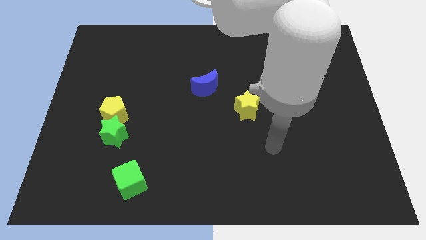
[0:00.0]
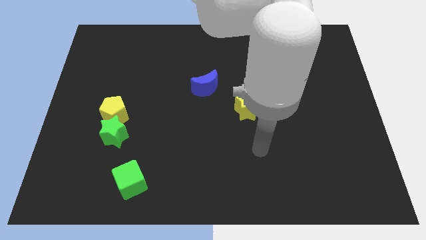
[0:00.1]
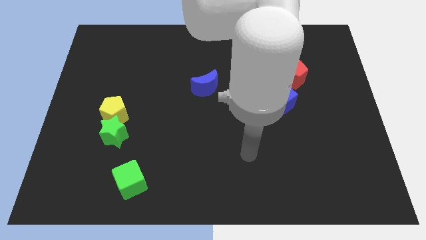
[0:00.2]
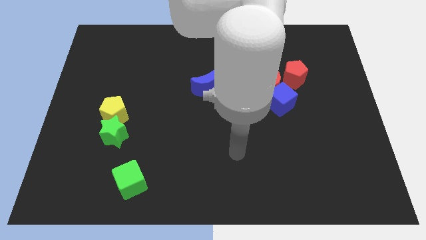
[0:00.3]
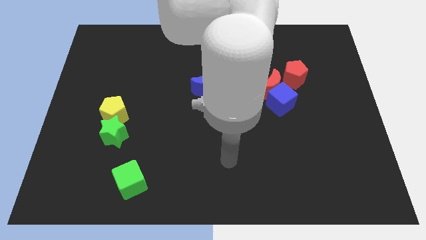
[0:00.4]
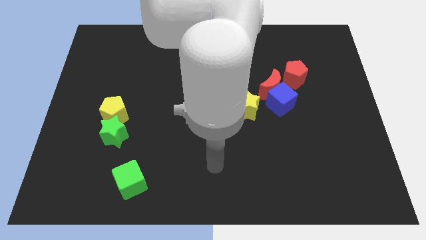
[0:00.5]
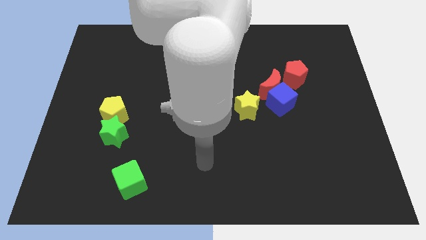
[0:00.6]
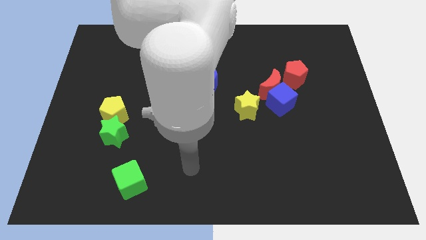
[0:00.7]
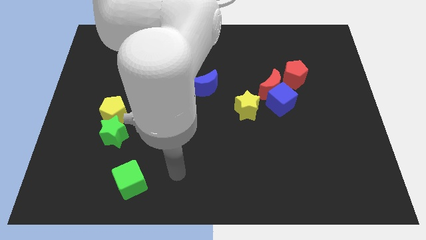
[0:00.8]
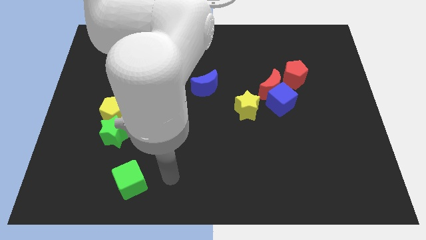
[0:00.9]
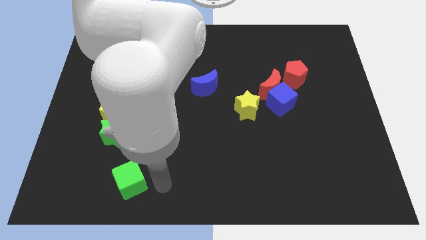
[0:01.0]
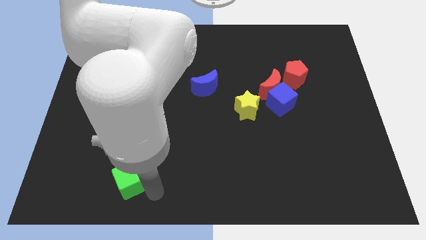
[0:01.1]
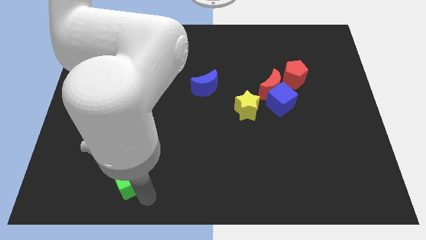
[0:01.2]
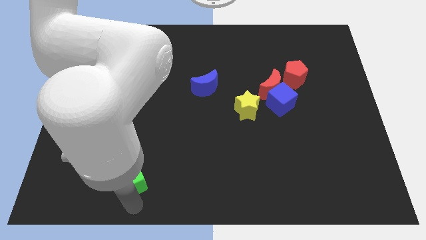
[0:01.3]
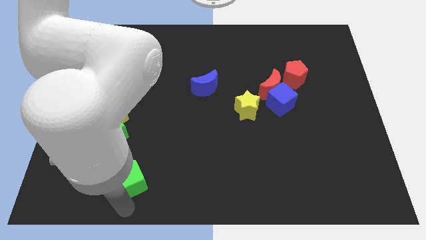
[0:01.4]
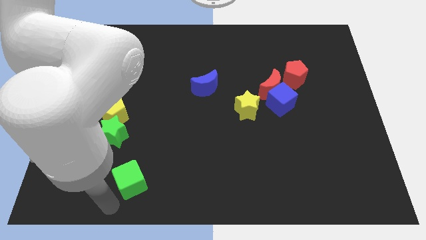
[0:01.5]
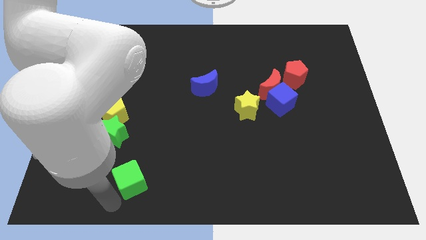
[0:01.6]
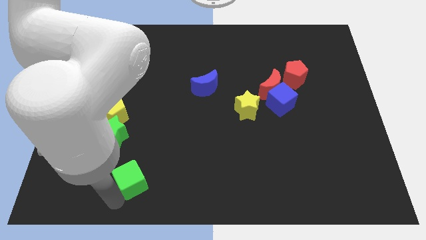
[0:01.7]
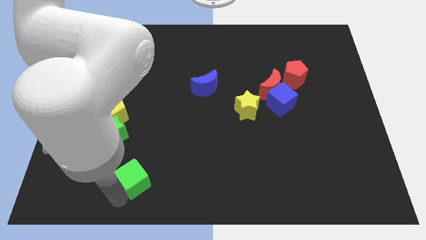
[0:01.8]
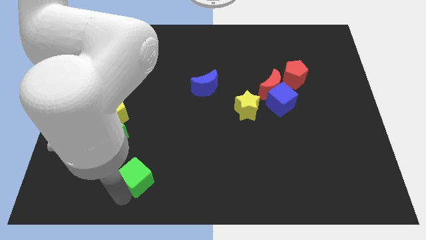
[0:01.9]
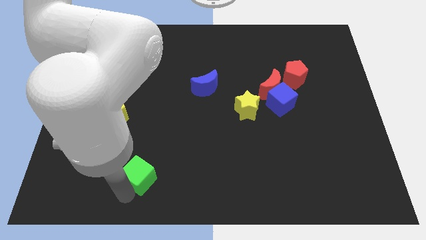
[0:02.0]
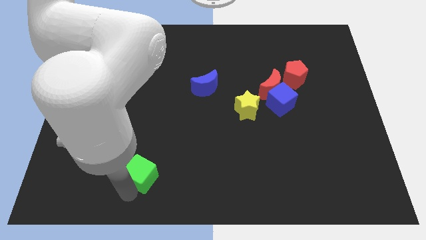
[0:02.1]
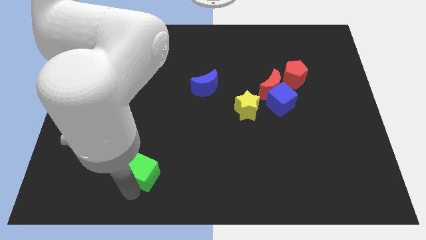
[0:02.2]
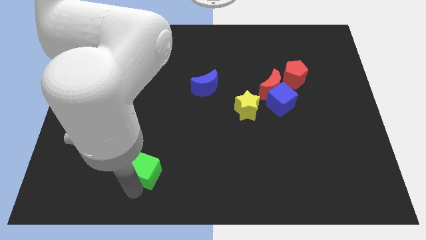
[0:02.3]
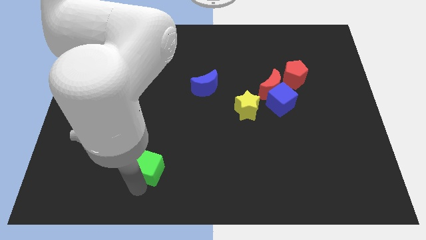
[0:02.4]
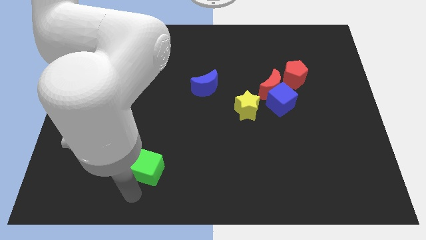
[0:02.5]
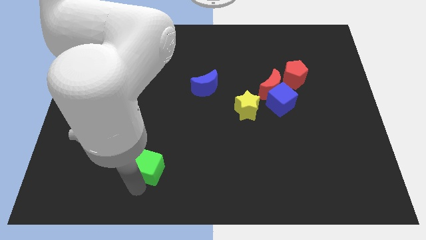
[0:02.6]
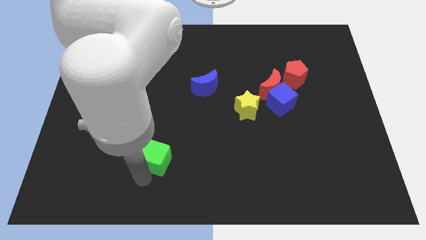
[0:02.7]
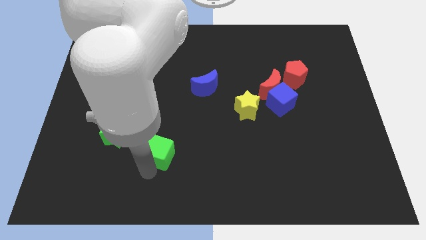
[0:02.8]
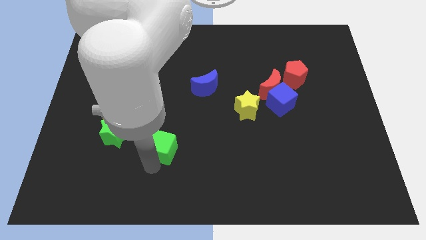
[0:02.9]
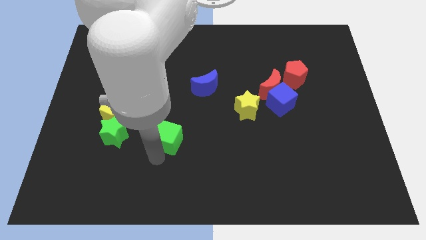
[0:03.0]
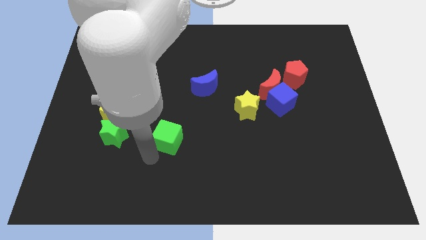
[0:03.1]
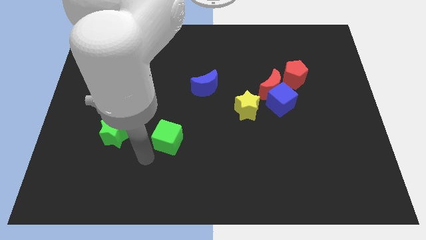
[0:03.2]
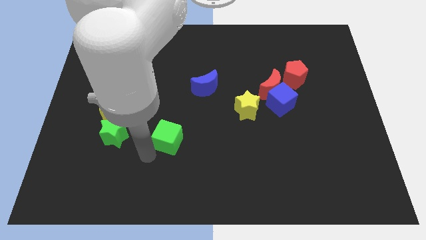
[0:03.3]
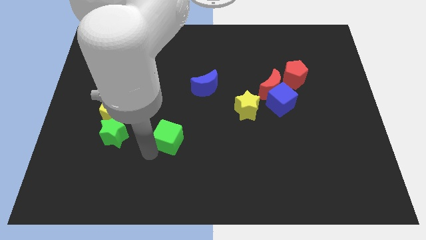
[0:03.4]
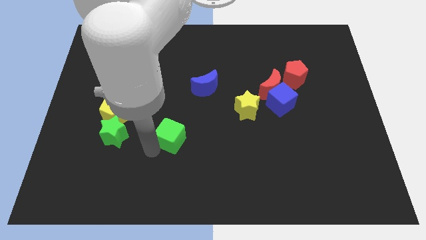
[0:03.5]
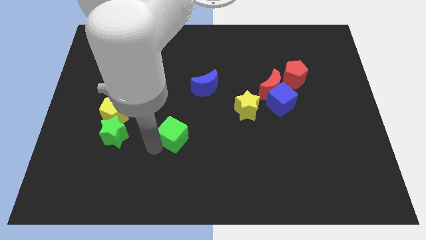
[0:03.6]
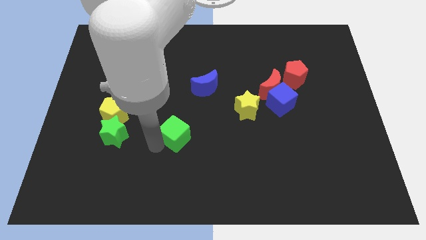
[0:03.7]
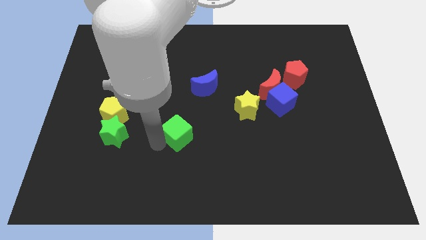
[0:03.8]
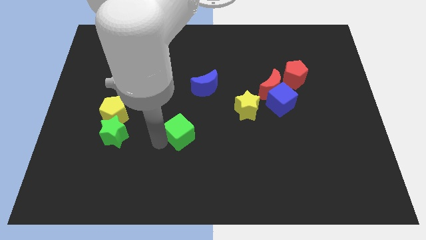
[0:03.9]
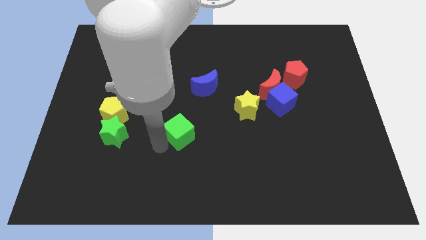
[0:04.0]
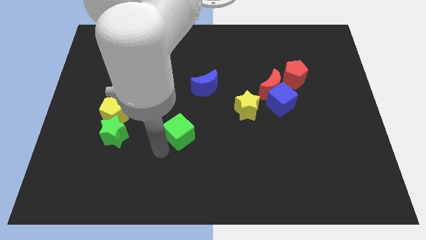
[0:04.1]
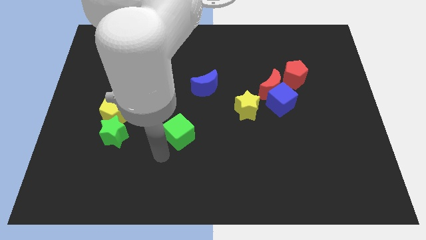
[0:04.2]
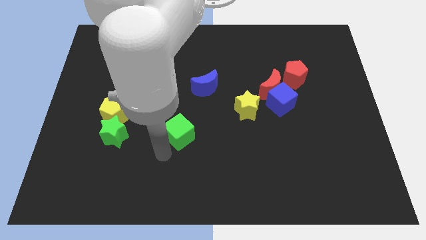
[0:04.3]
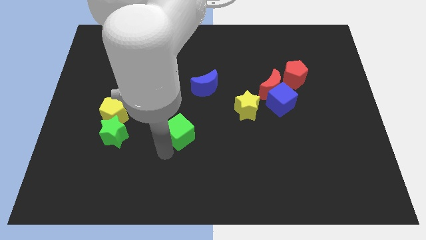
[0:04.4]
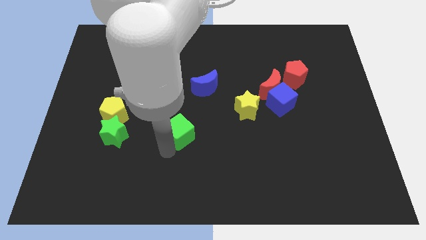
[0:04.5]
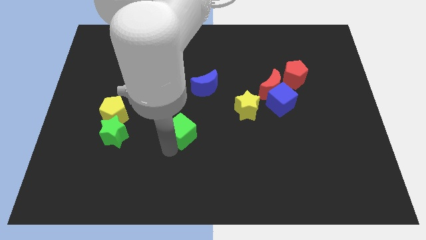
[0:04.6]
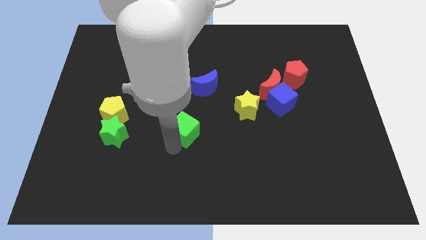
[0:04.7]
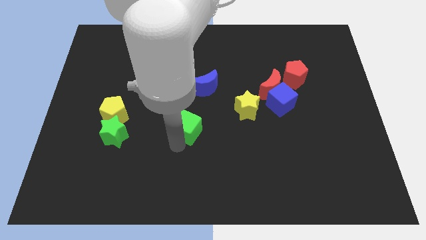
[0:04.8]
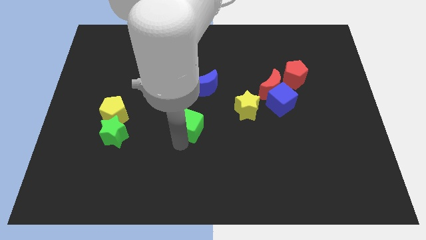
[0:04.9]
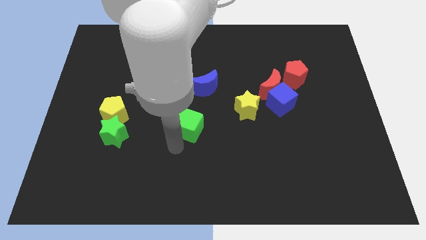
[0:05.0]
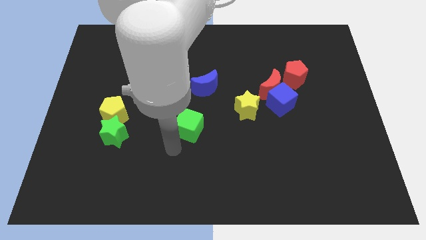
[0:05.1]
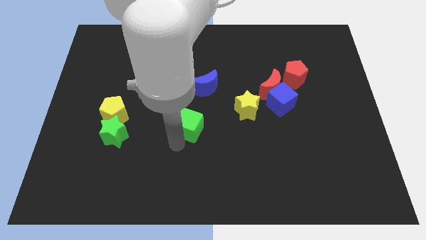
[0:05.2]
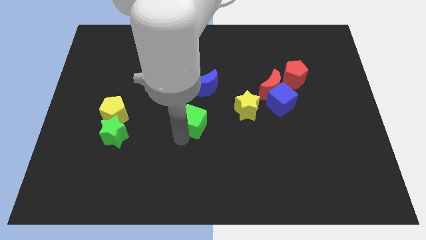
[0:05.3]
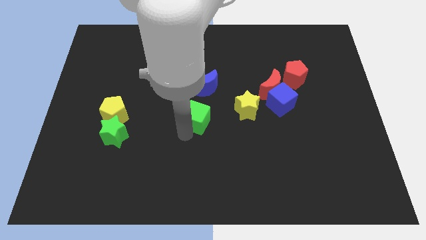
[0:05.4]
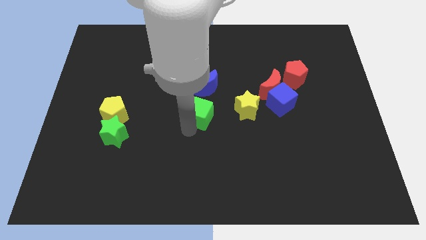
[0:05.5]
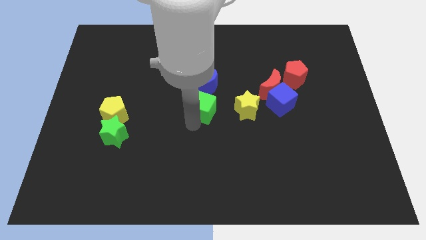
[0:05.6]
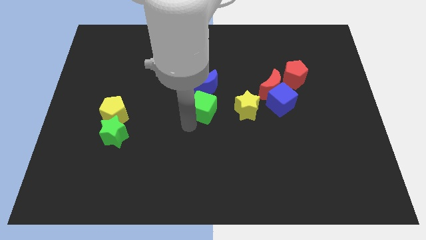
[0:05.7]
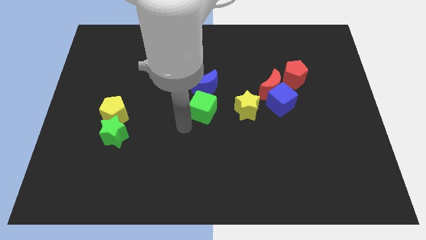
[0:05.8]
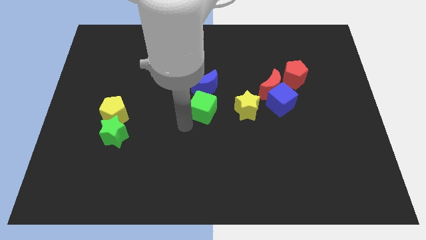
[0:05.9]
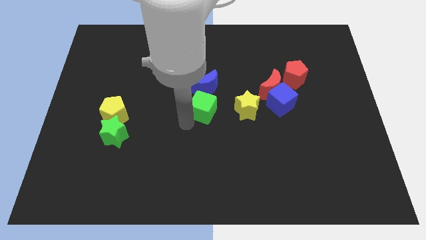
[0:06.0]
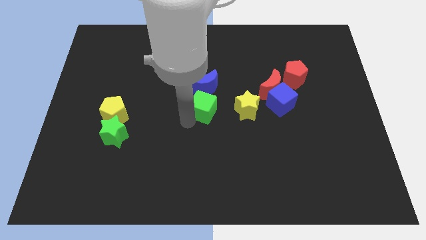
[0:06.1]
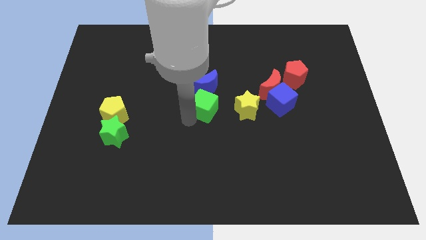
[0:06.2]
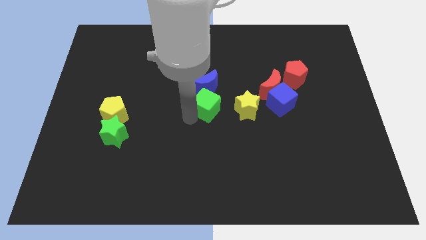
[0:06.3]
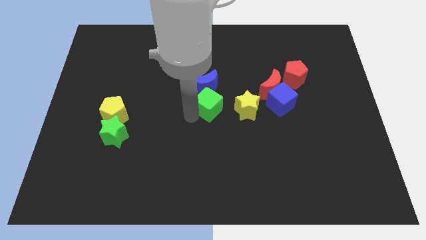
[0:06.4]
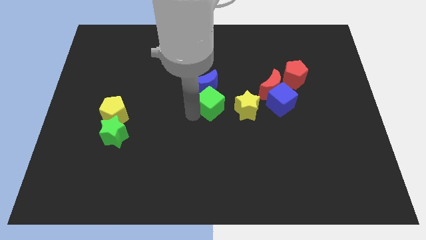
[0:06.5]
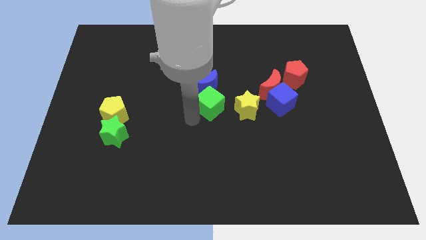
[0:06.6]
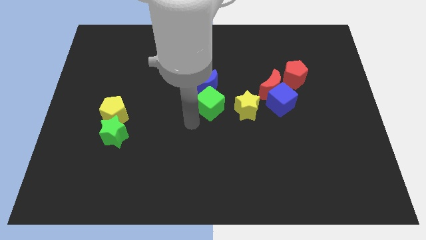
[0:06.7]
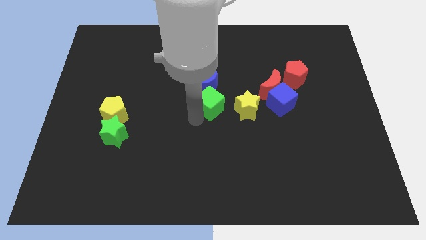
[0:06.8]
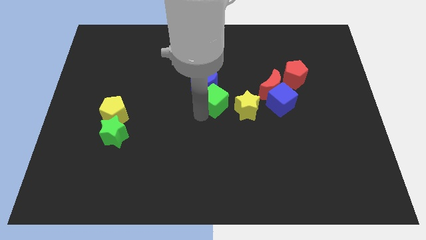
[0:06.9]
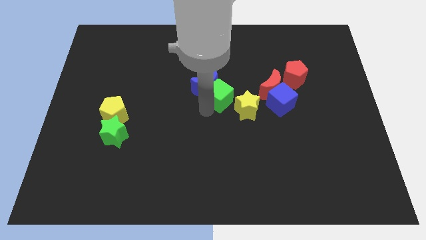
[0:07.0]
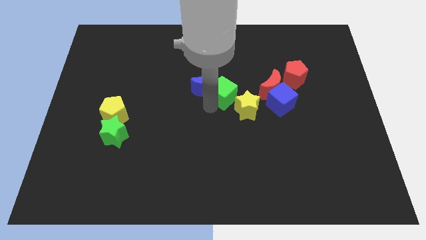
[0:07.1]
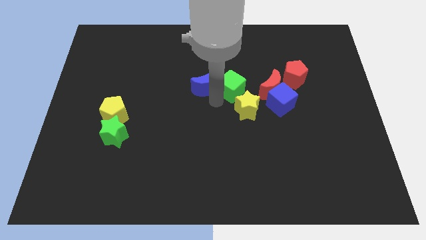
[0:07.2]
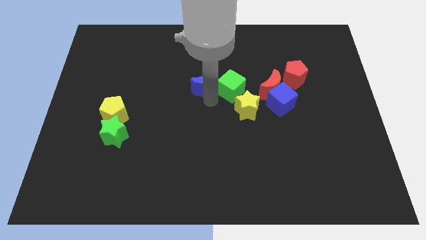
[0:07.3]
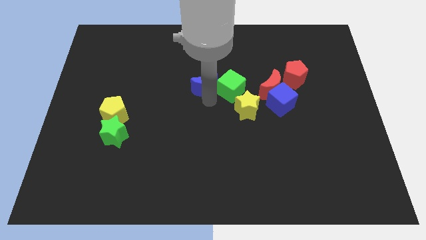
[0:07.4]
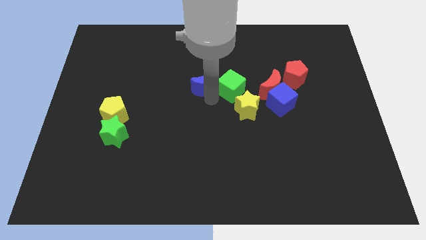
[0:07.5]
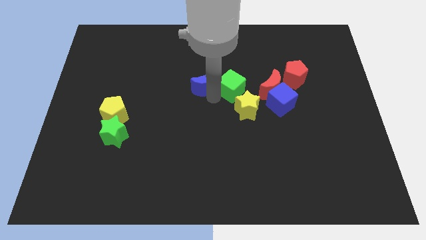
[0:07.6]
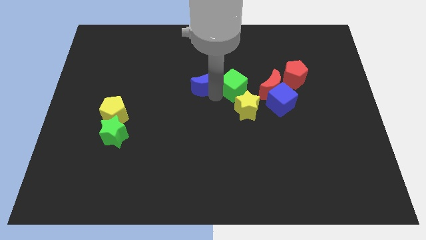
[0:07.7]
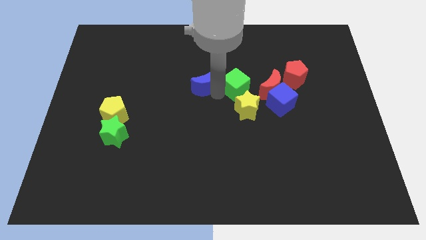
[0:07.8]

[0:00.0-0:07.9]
move the green cube just left of the red pentagon
